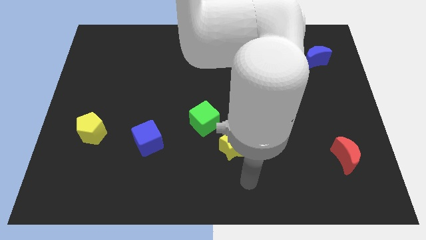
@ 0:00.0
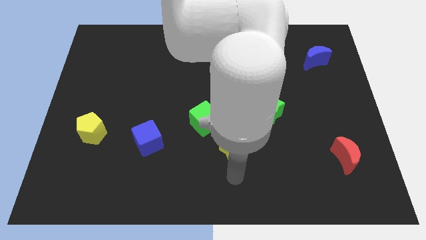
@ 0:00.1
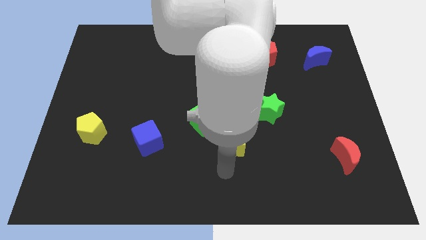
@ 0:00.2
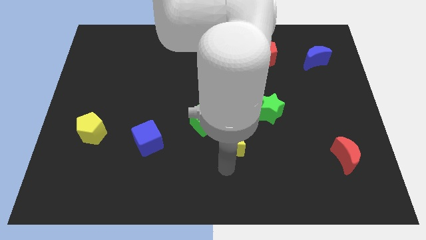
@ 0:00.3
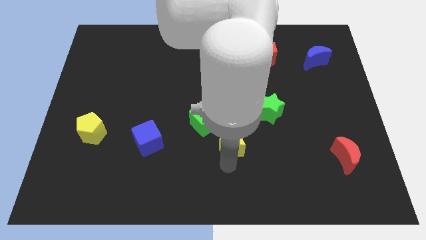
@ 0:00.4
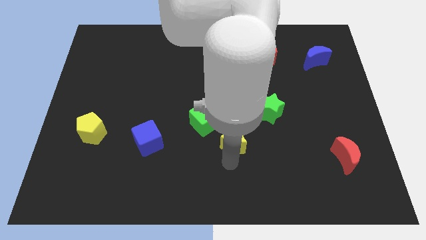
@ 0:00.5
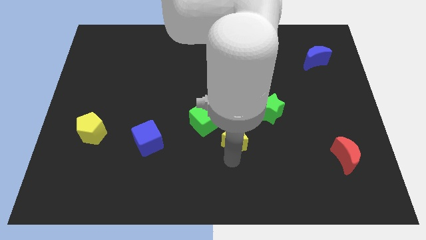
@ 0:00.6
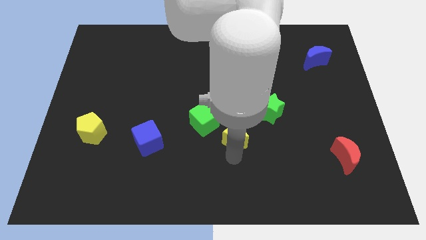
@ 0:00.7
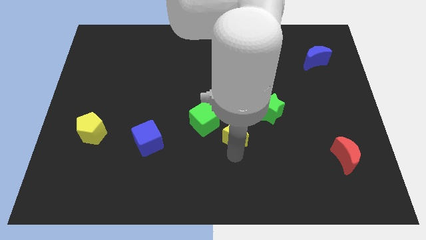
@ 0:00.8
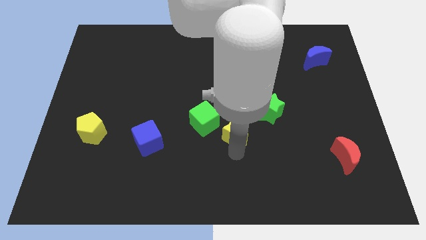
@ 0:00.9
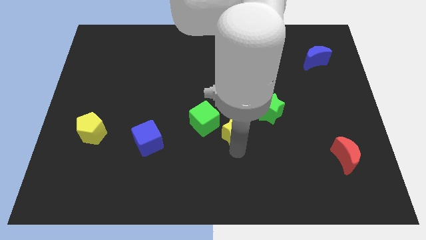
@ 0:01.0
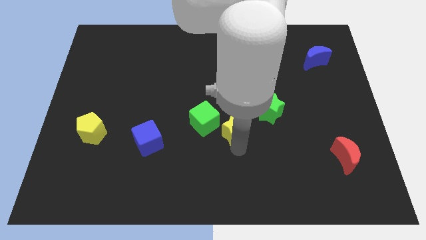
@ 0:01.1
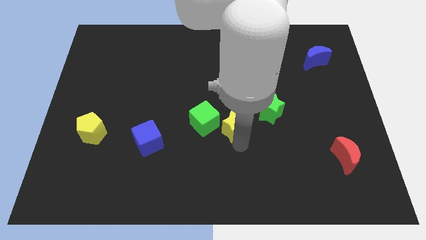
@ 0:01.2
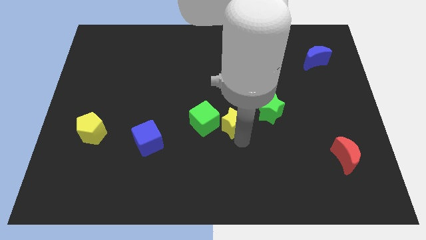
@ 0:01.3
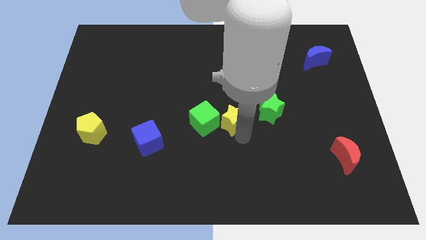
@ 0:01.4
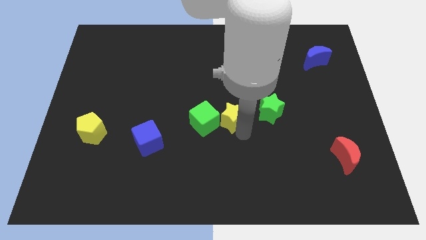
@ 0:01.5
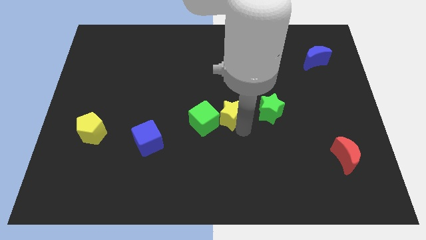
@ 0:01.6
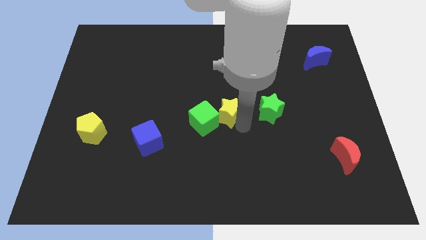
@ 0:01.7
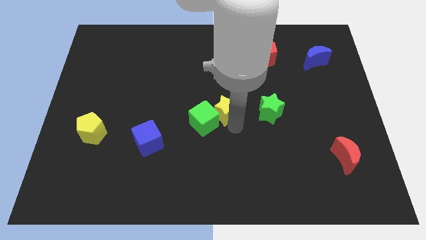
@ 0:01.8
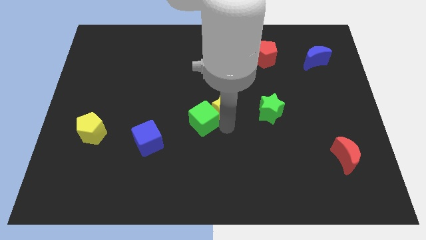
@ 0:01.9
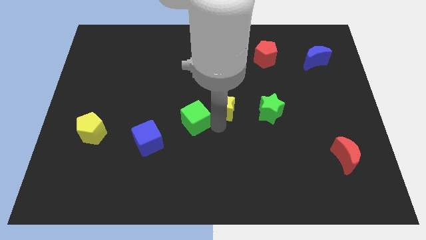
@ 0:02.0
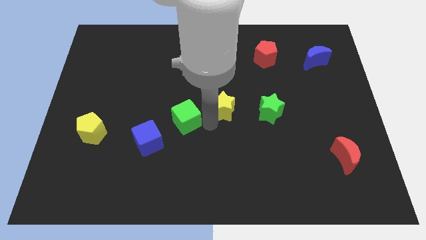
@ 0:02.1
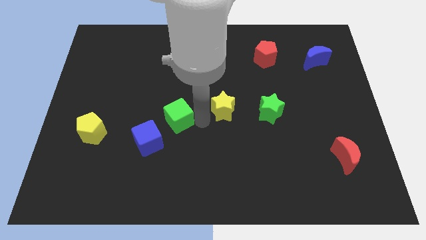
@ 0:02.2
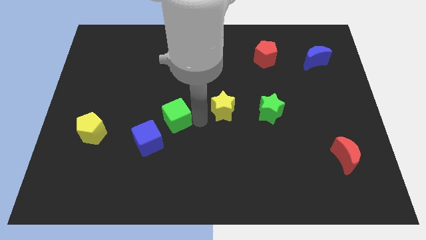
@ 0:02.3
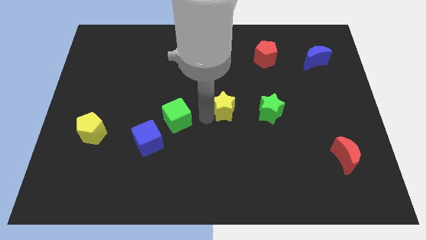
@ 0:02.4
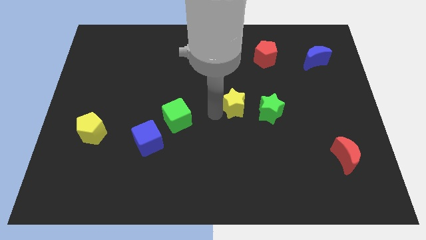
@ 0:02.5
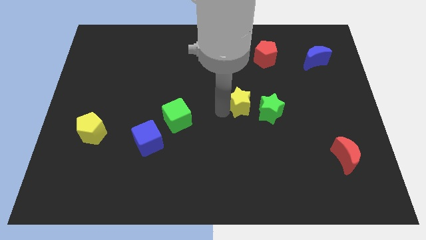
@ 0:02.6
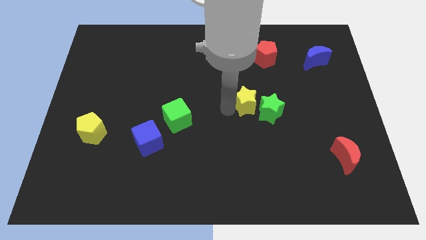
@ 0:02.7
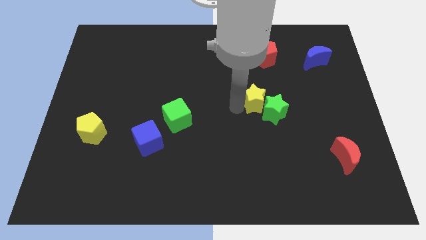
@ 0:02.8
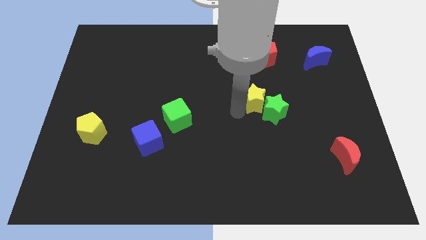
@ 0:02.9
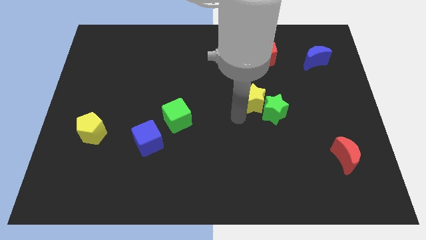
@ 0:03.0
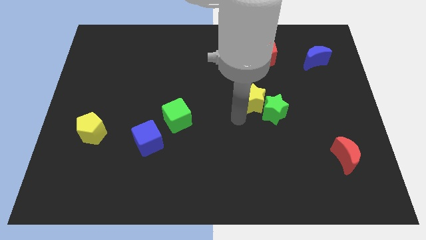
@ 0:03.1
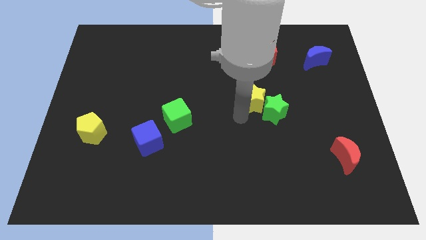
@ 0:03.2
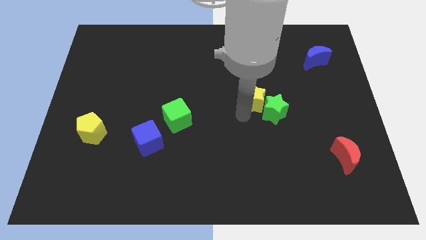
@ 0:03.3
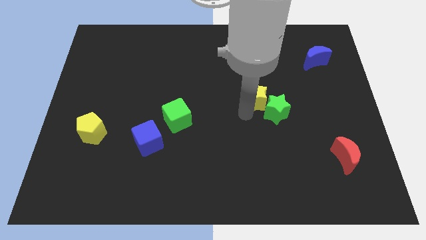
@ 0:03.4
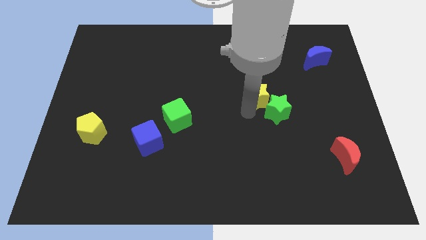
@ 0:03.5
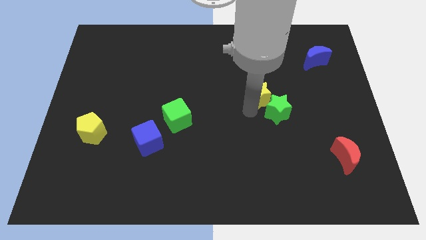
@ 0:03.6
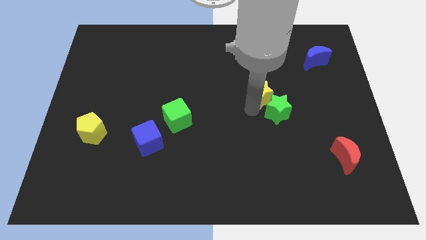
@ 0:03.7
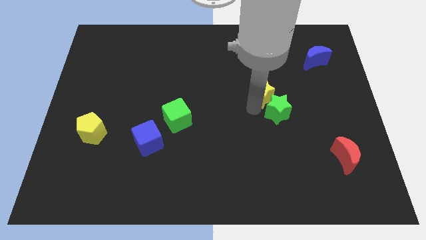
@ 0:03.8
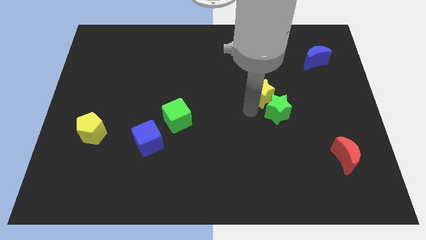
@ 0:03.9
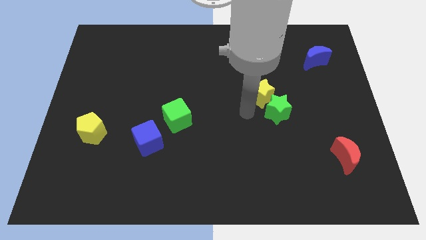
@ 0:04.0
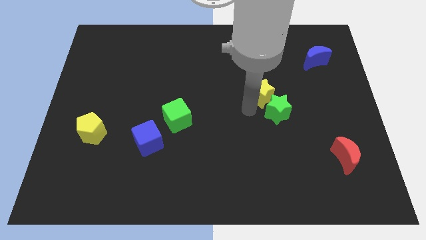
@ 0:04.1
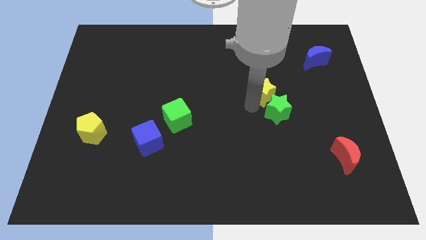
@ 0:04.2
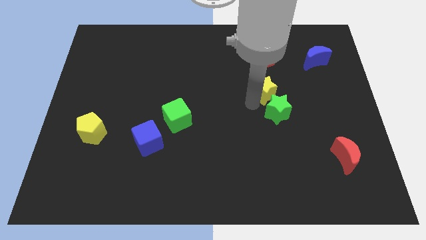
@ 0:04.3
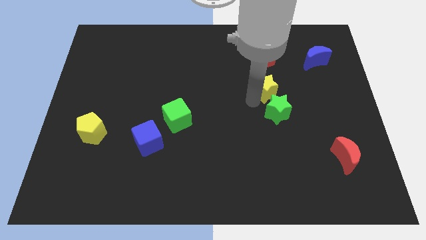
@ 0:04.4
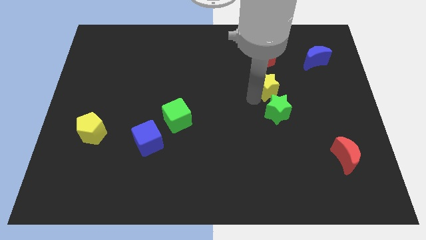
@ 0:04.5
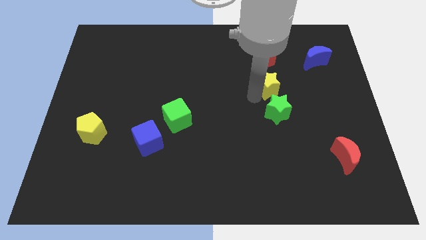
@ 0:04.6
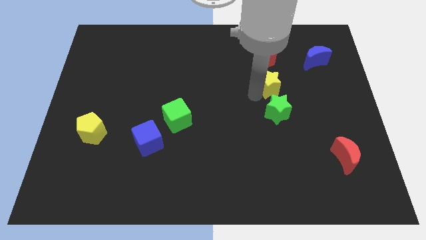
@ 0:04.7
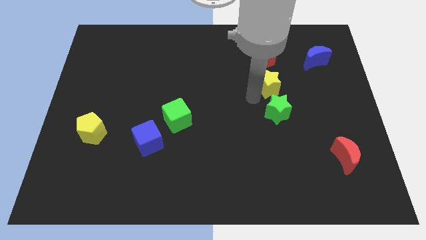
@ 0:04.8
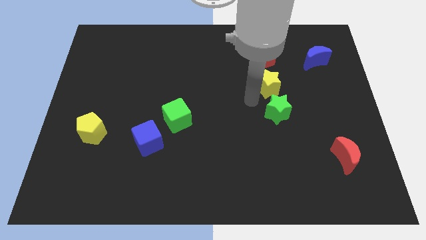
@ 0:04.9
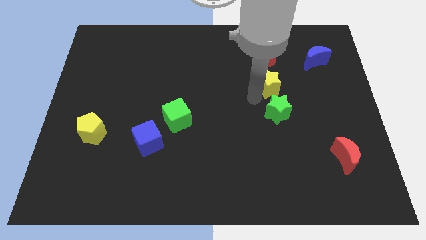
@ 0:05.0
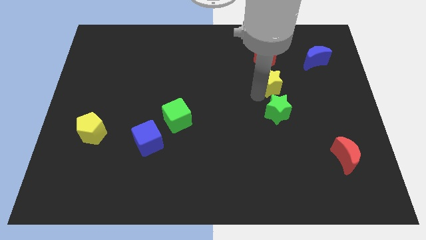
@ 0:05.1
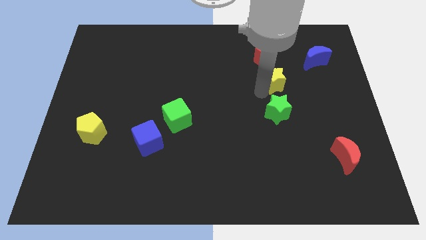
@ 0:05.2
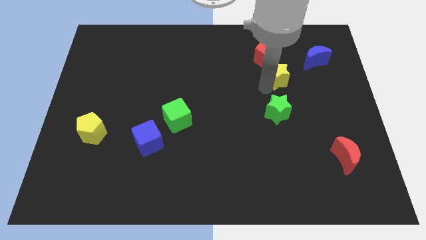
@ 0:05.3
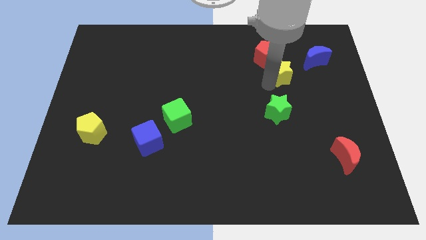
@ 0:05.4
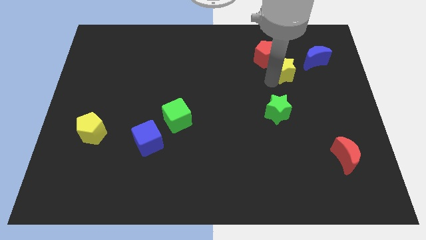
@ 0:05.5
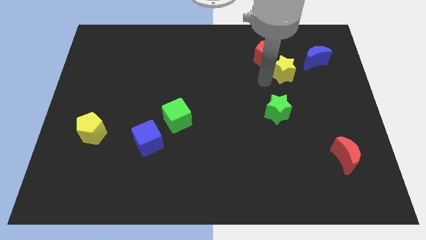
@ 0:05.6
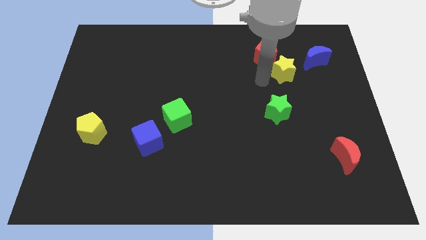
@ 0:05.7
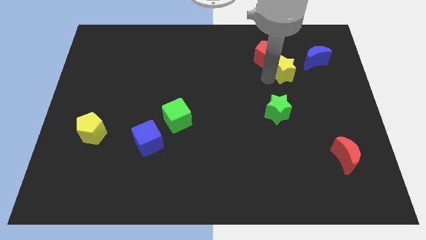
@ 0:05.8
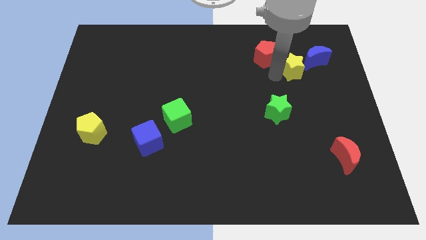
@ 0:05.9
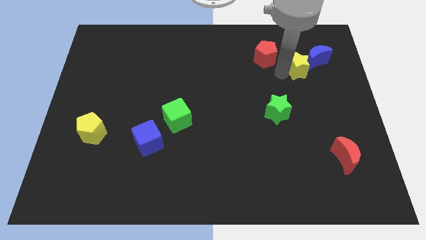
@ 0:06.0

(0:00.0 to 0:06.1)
move the yellow star to the blue moon

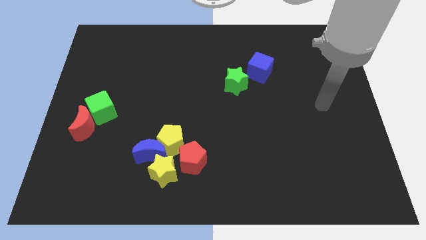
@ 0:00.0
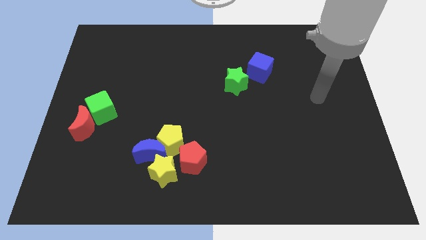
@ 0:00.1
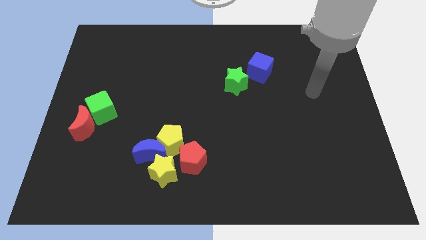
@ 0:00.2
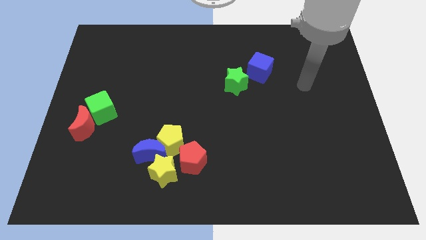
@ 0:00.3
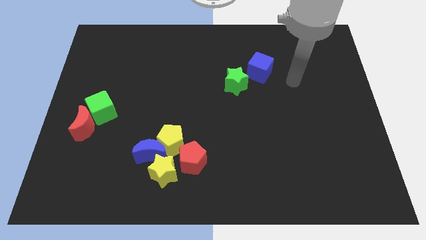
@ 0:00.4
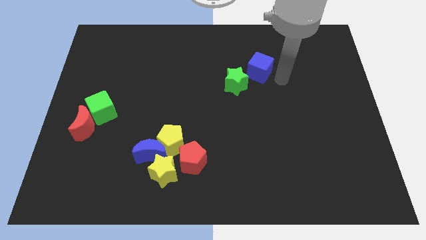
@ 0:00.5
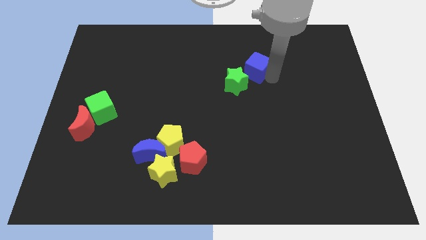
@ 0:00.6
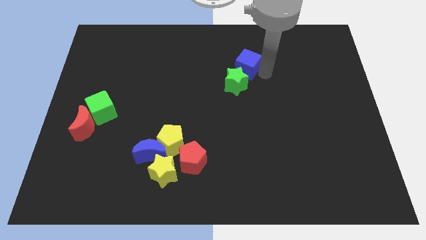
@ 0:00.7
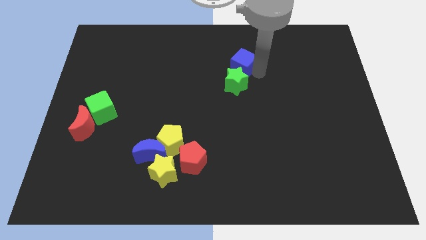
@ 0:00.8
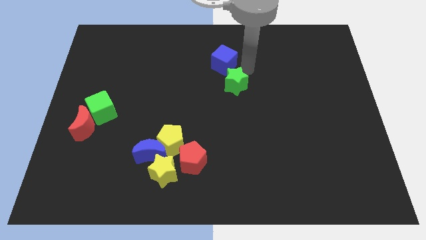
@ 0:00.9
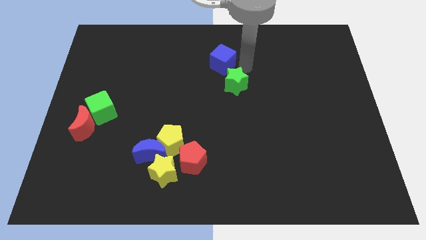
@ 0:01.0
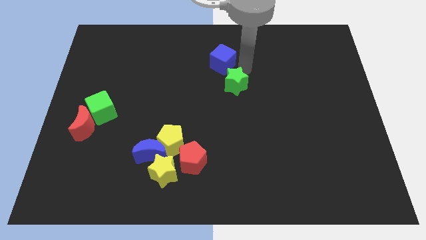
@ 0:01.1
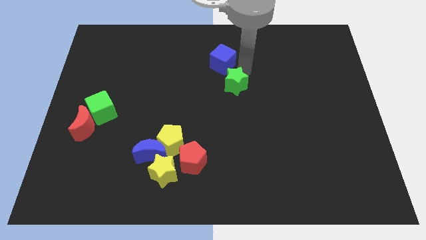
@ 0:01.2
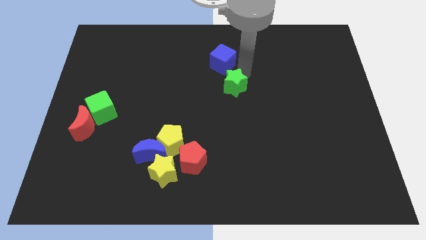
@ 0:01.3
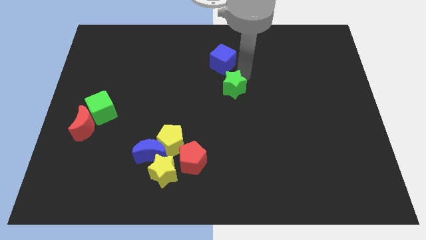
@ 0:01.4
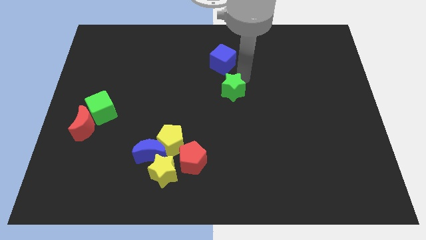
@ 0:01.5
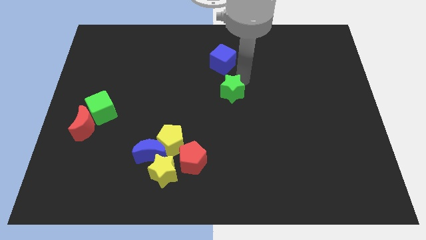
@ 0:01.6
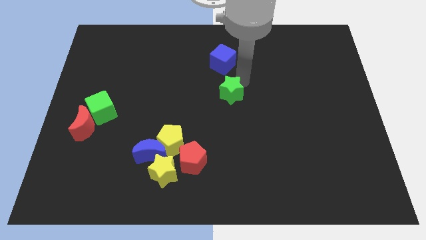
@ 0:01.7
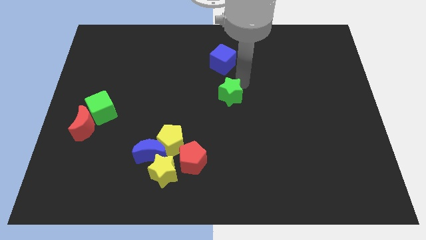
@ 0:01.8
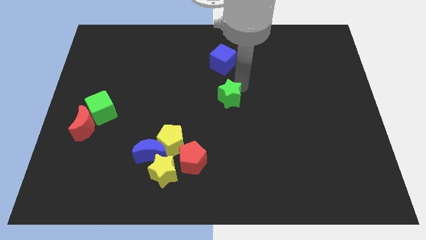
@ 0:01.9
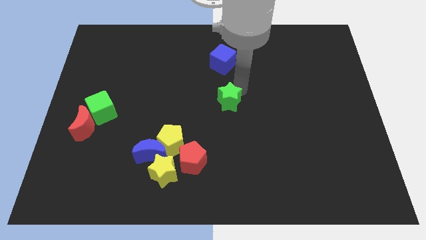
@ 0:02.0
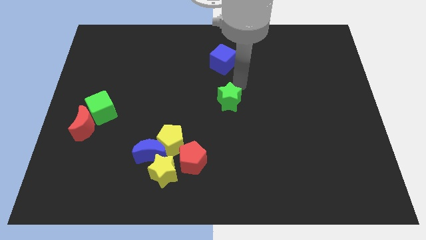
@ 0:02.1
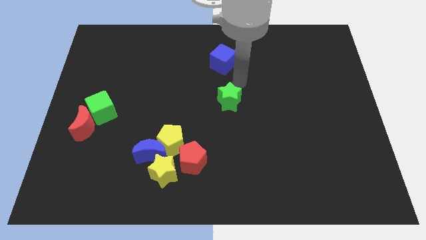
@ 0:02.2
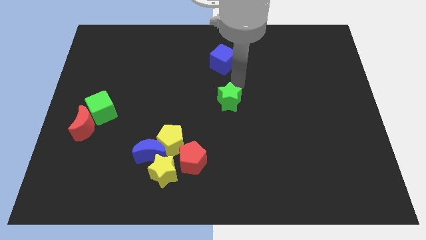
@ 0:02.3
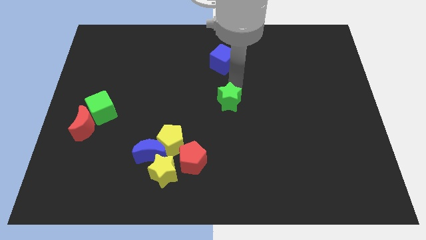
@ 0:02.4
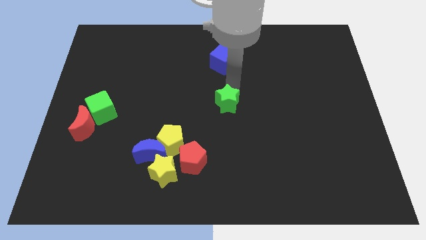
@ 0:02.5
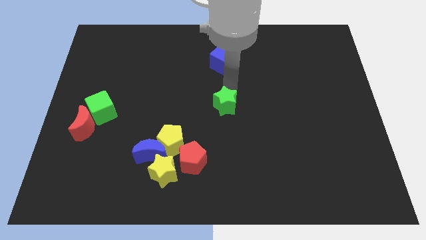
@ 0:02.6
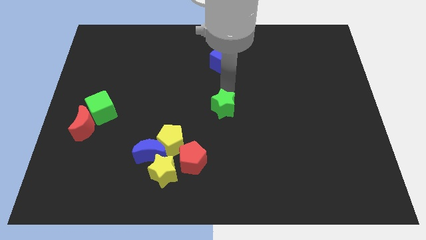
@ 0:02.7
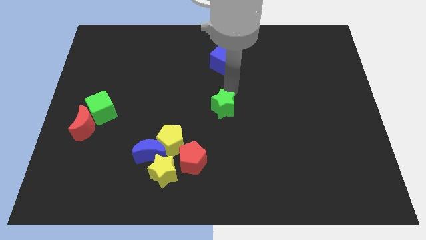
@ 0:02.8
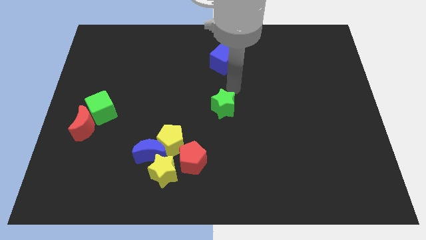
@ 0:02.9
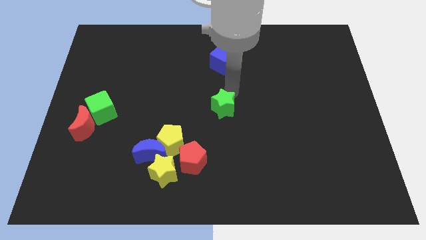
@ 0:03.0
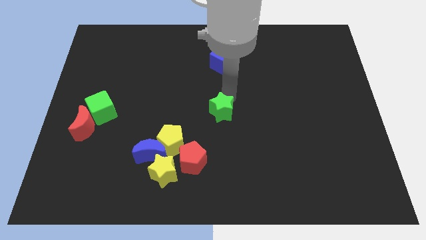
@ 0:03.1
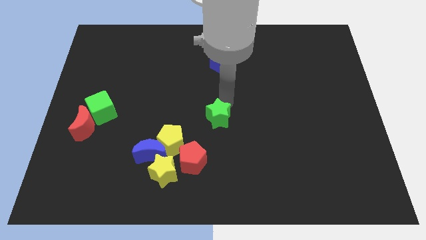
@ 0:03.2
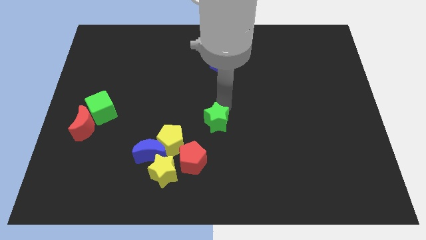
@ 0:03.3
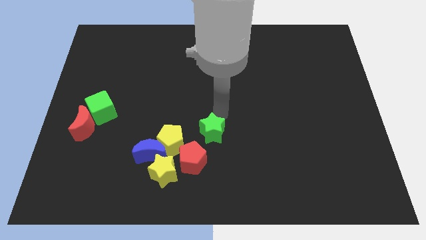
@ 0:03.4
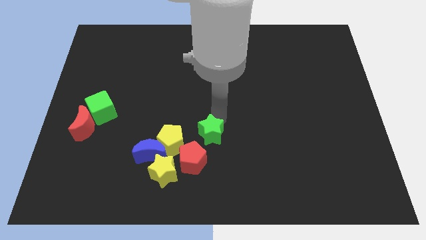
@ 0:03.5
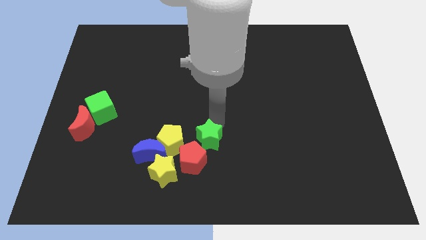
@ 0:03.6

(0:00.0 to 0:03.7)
move the green star to the red pentagon
